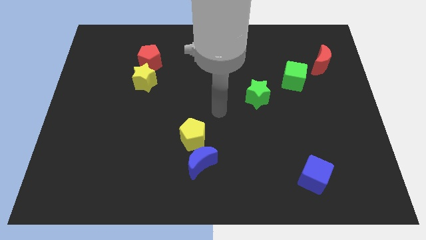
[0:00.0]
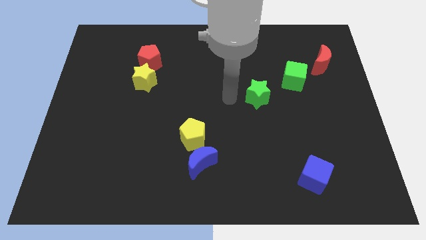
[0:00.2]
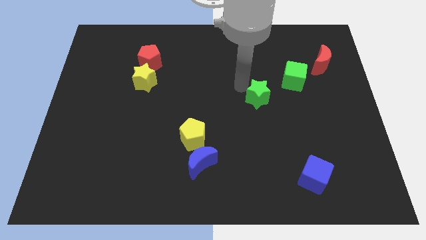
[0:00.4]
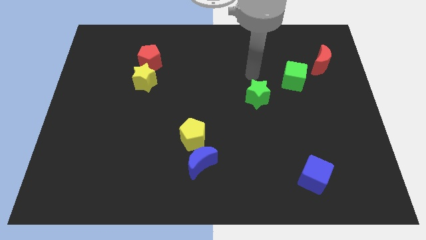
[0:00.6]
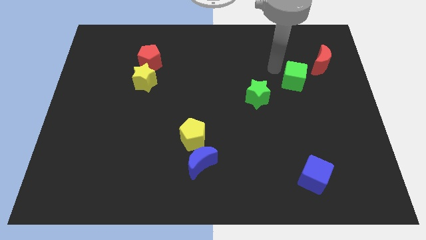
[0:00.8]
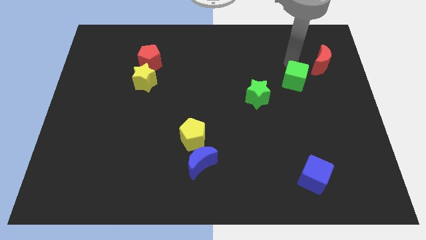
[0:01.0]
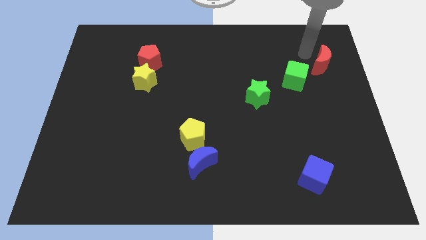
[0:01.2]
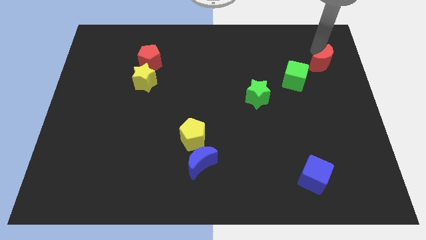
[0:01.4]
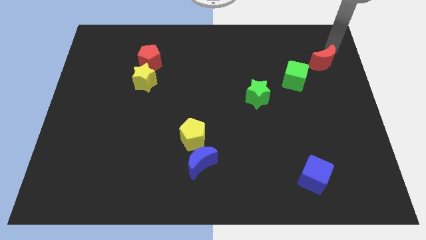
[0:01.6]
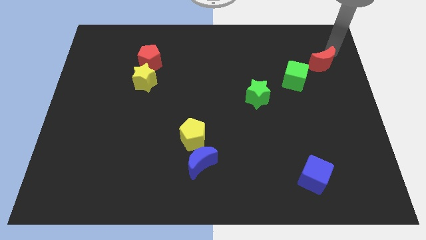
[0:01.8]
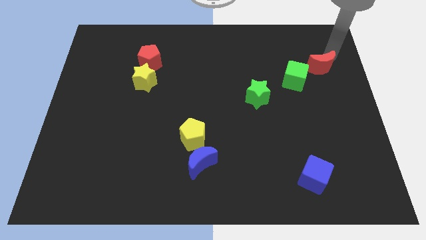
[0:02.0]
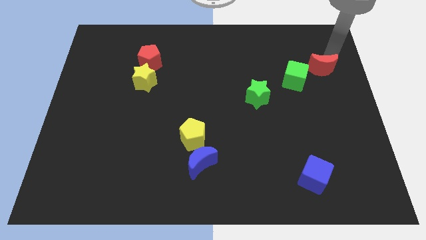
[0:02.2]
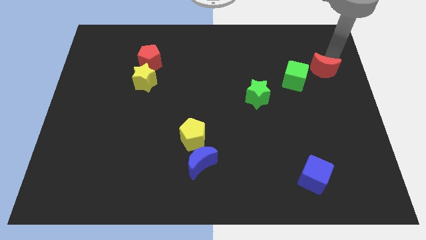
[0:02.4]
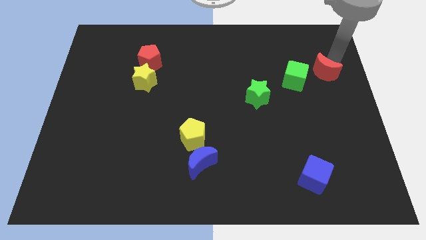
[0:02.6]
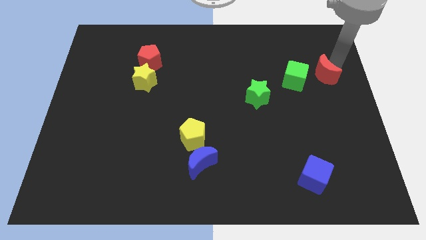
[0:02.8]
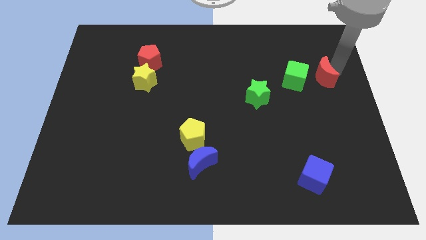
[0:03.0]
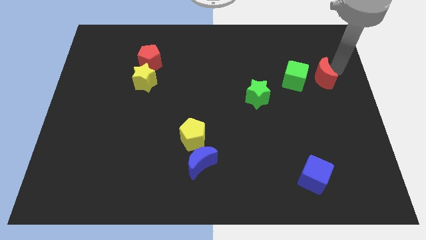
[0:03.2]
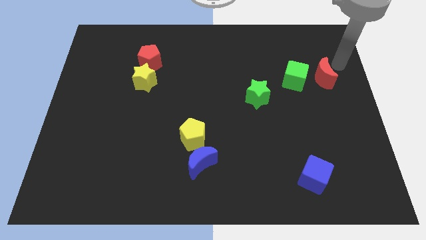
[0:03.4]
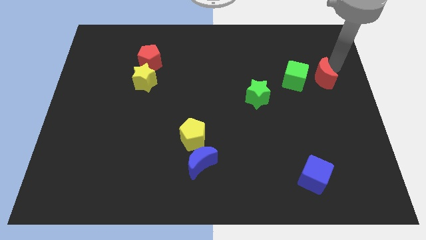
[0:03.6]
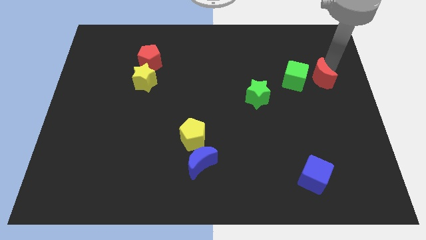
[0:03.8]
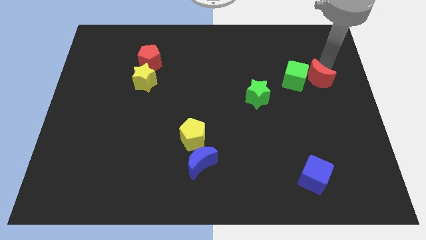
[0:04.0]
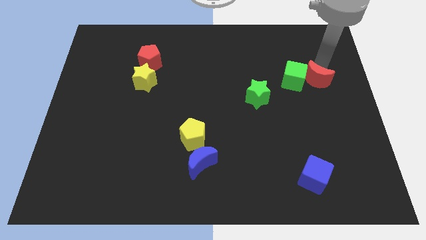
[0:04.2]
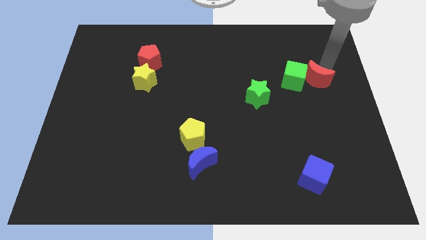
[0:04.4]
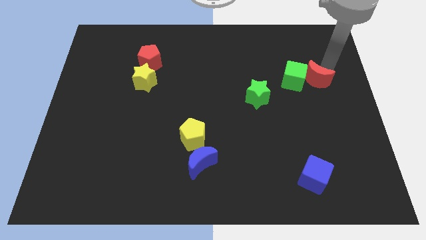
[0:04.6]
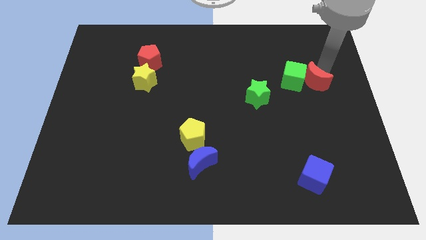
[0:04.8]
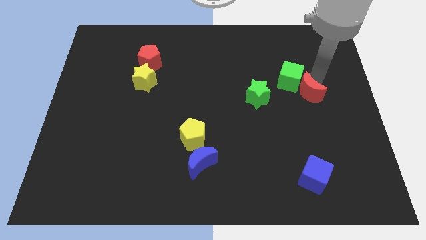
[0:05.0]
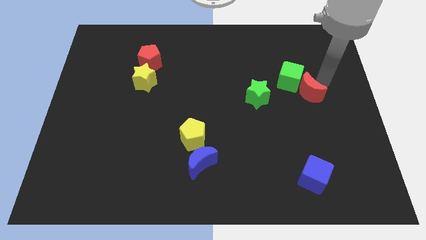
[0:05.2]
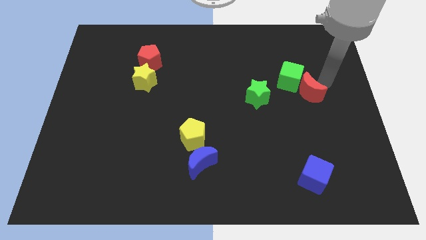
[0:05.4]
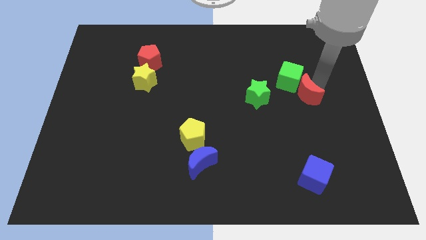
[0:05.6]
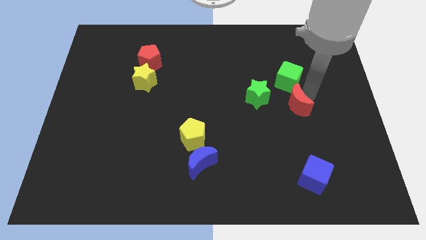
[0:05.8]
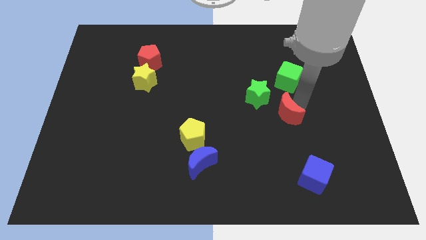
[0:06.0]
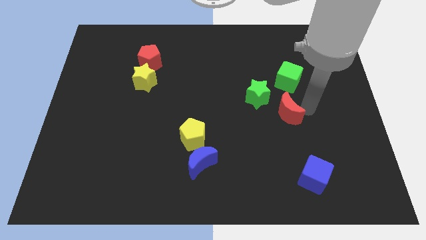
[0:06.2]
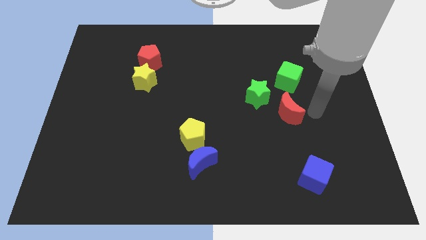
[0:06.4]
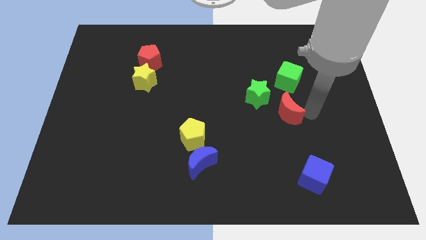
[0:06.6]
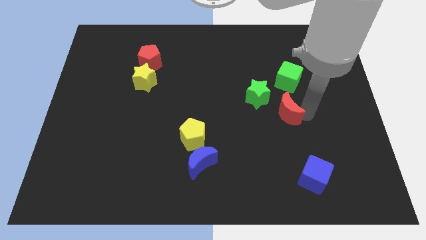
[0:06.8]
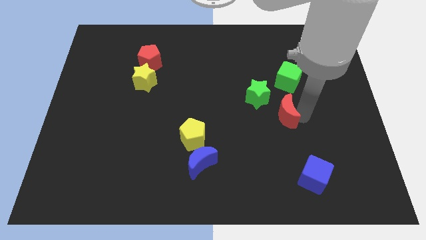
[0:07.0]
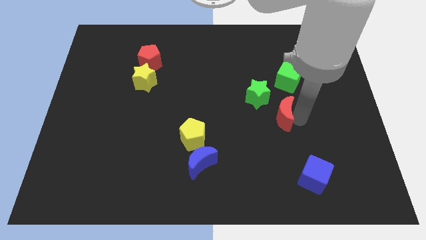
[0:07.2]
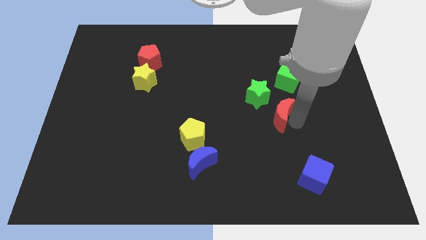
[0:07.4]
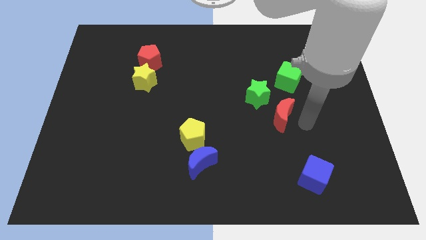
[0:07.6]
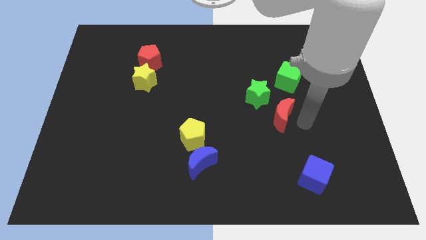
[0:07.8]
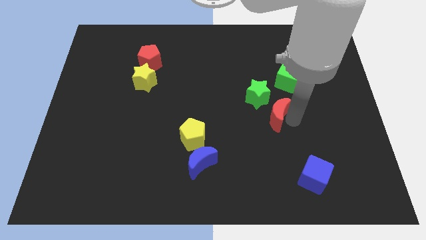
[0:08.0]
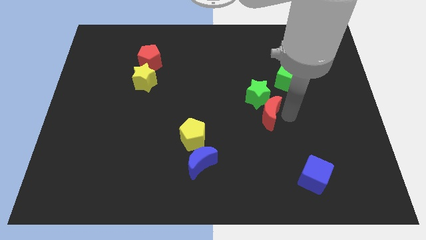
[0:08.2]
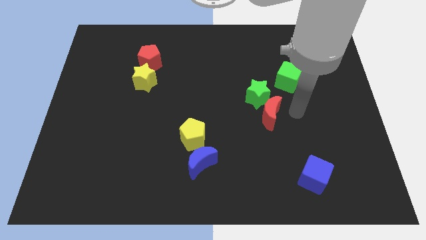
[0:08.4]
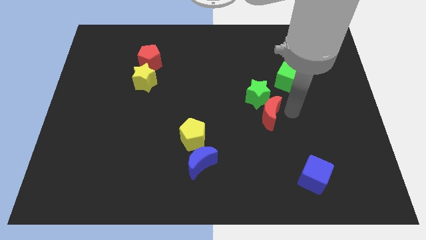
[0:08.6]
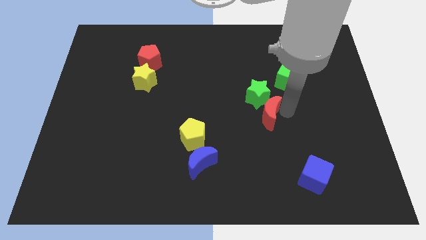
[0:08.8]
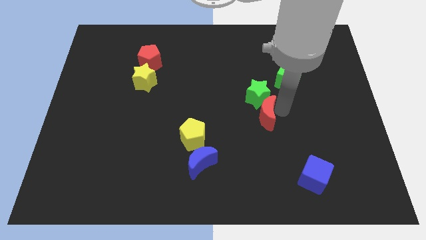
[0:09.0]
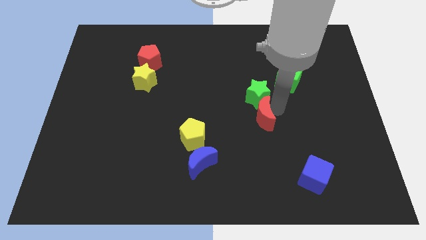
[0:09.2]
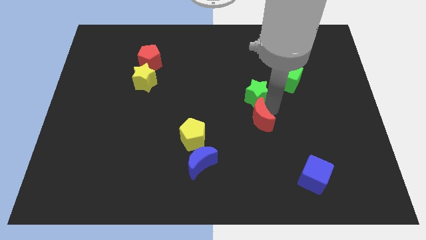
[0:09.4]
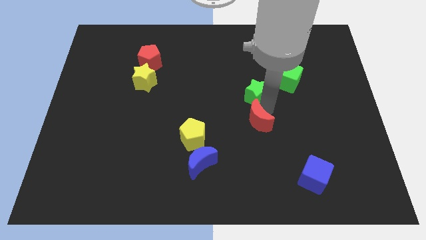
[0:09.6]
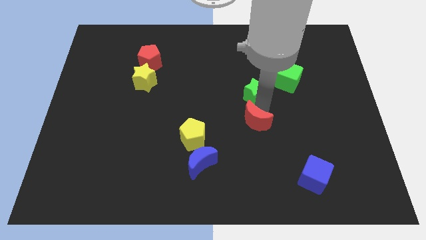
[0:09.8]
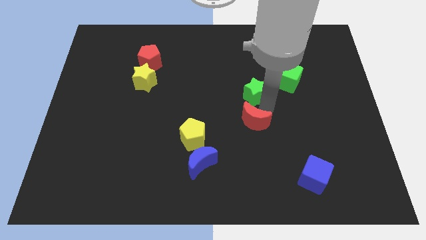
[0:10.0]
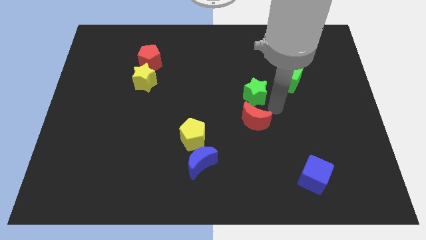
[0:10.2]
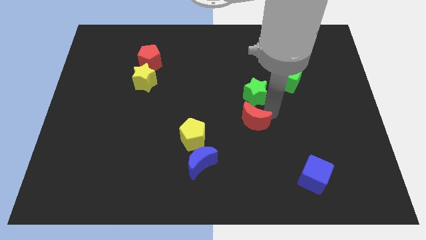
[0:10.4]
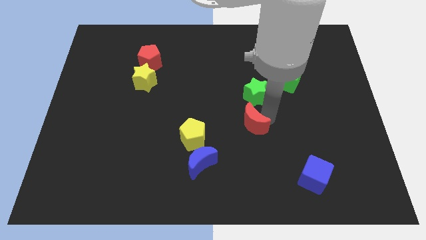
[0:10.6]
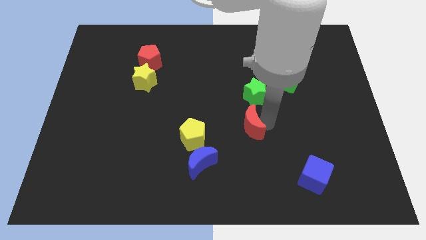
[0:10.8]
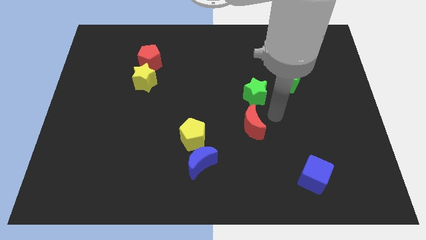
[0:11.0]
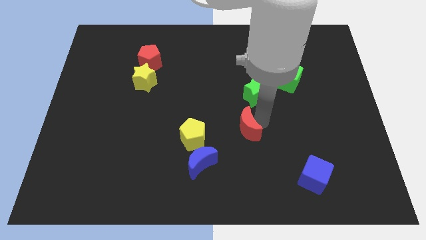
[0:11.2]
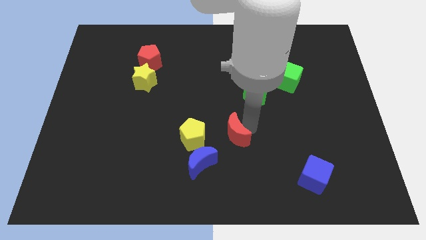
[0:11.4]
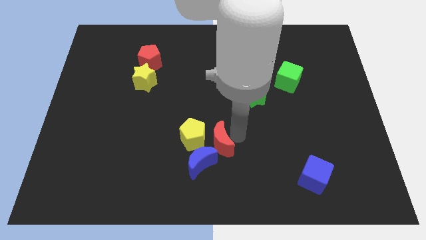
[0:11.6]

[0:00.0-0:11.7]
slide the red moon towards the yellow pentagon

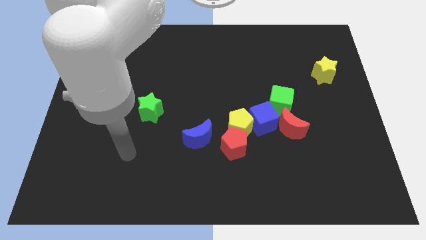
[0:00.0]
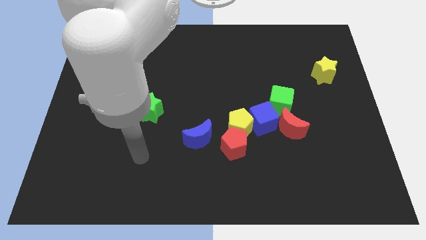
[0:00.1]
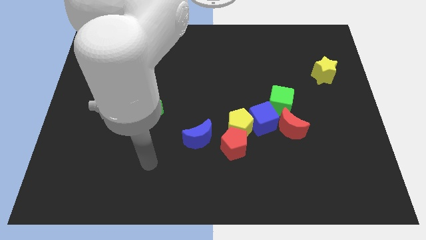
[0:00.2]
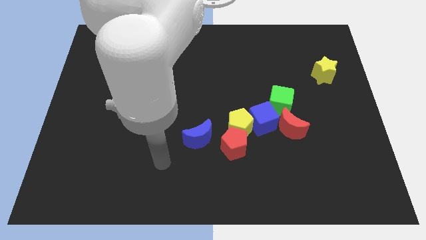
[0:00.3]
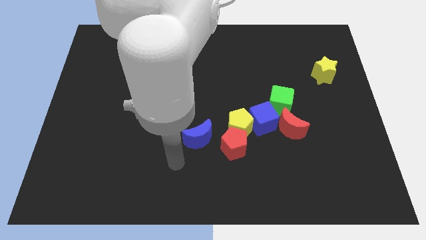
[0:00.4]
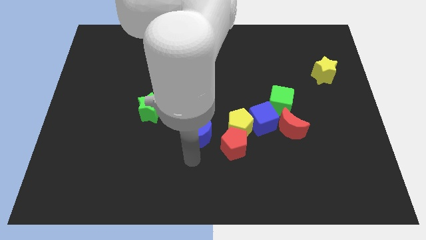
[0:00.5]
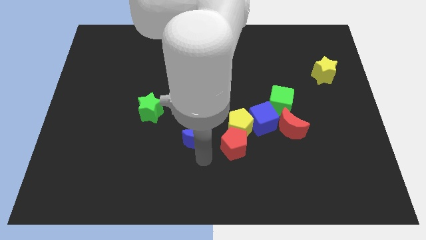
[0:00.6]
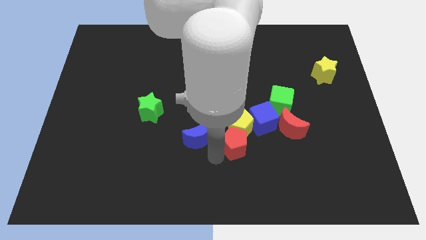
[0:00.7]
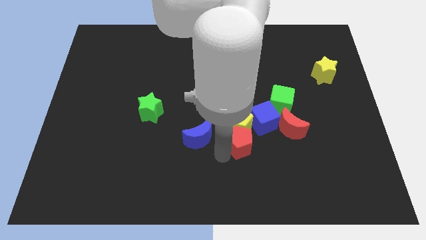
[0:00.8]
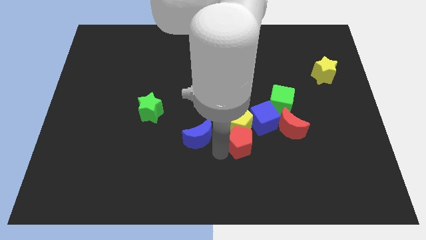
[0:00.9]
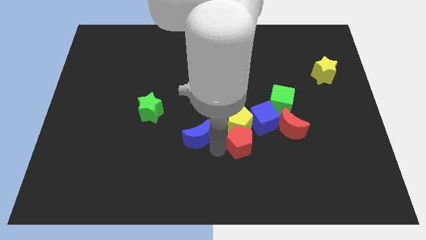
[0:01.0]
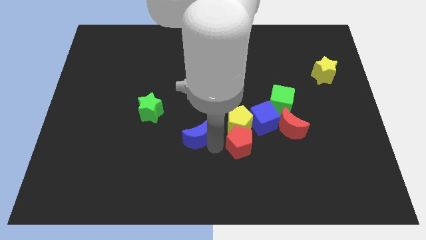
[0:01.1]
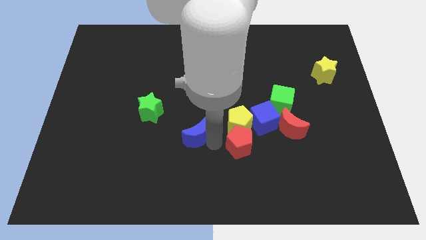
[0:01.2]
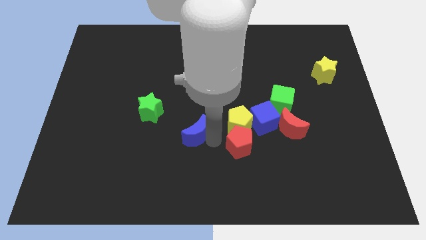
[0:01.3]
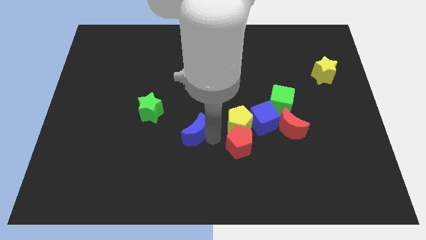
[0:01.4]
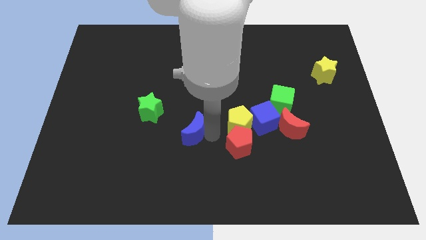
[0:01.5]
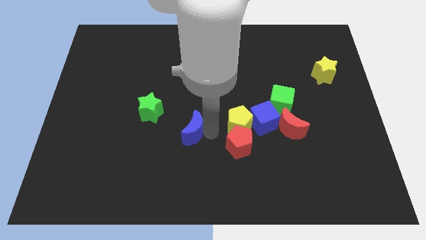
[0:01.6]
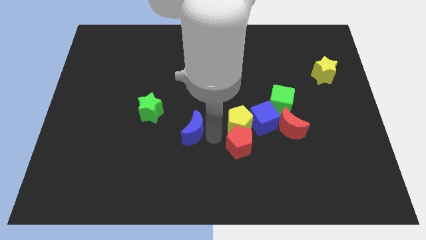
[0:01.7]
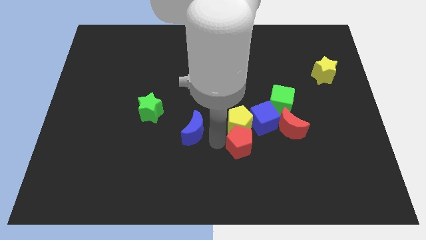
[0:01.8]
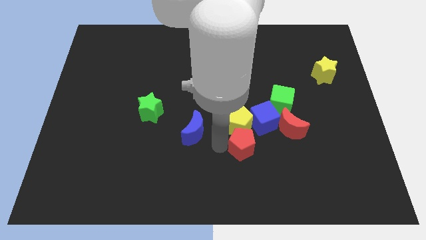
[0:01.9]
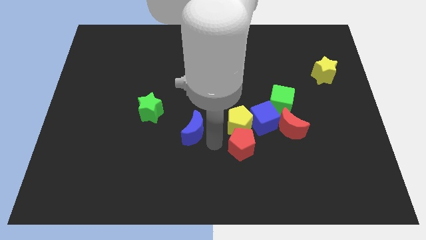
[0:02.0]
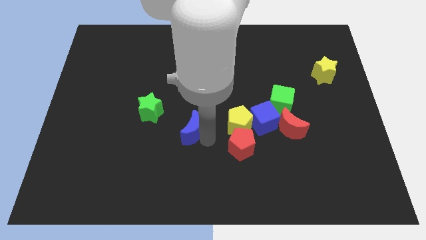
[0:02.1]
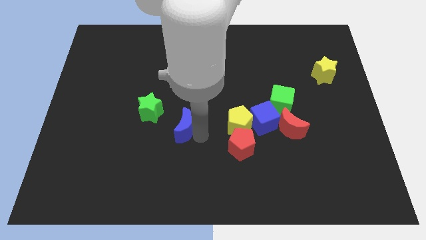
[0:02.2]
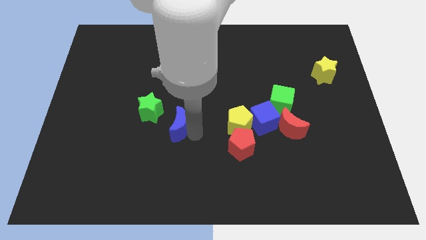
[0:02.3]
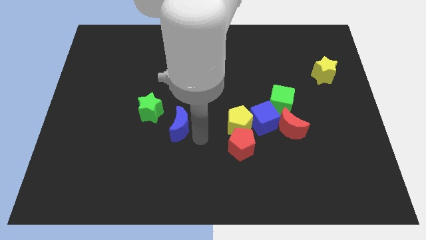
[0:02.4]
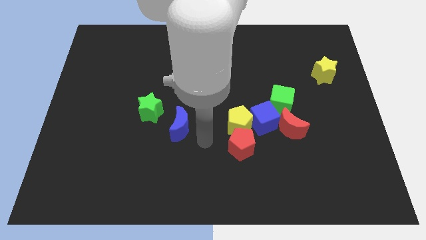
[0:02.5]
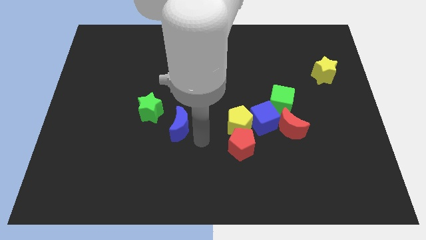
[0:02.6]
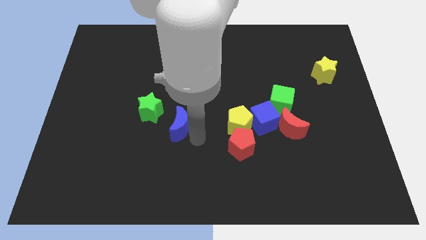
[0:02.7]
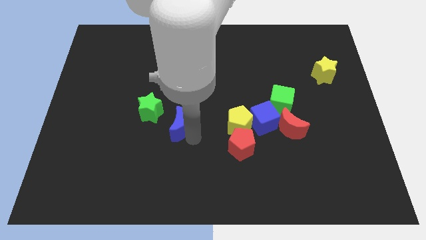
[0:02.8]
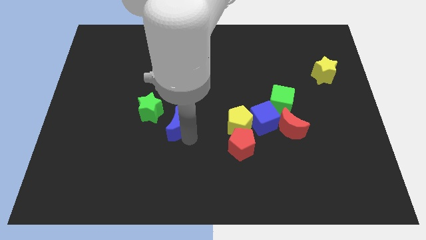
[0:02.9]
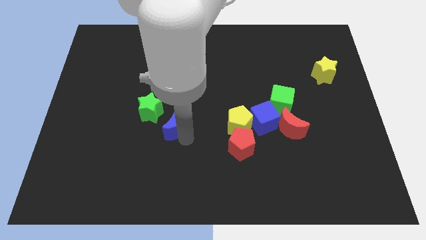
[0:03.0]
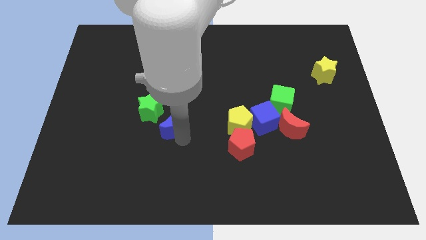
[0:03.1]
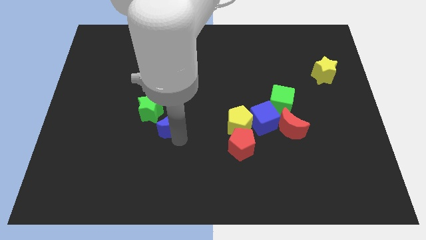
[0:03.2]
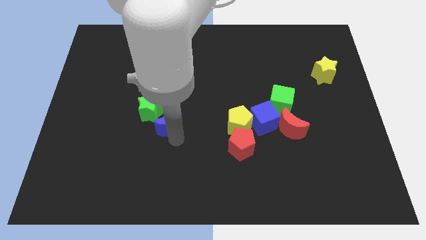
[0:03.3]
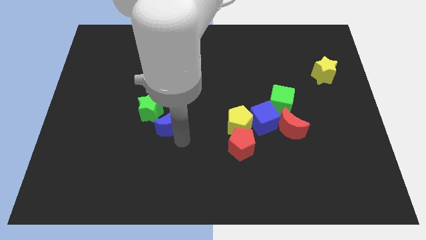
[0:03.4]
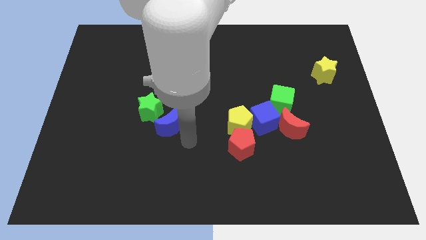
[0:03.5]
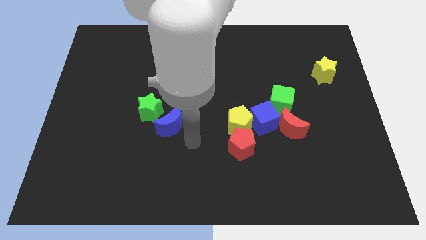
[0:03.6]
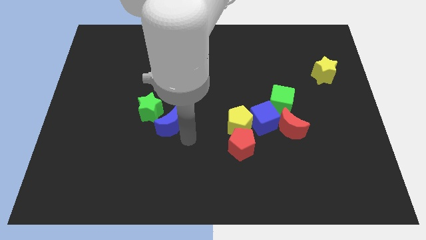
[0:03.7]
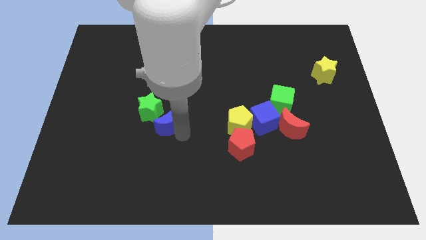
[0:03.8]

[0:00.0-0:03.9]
move the blue moon next to the green star
